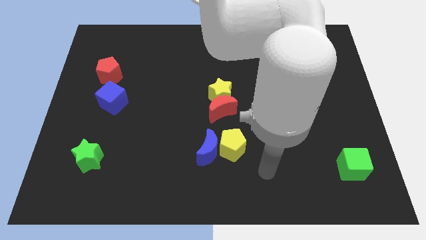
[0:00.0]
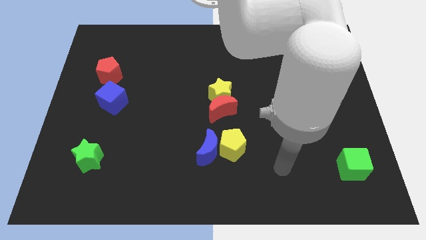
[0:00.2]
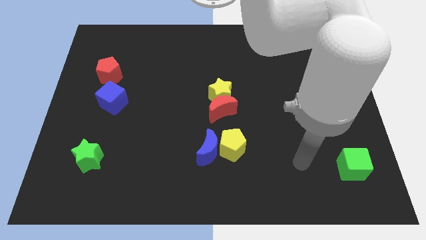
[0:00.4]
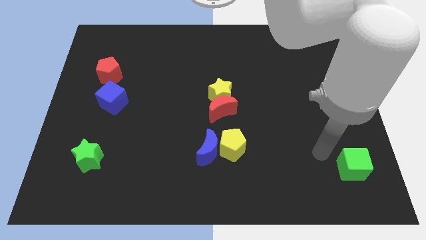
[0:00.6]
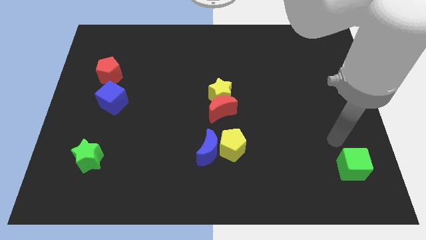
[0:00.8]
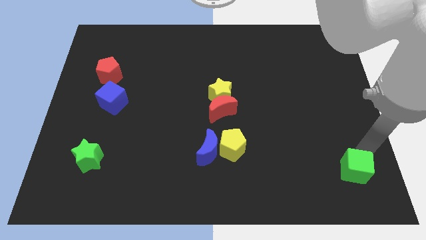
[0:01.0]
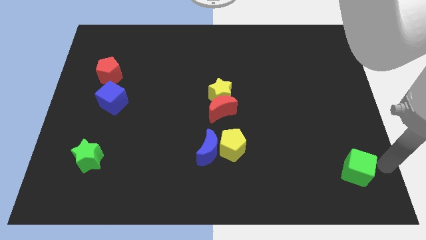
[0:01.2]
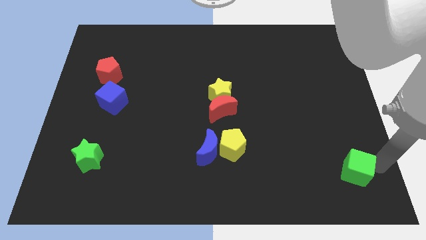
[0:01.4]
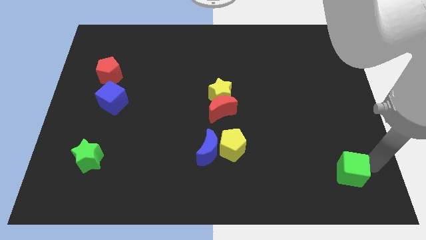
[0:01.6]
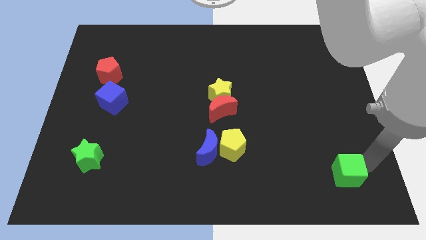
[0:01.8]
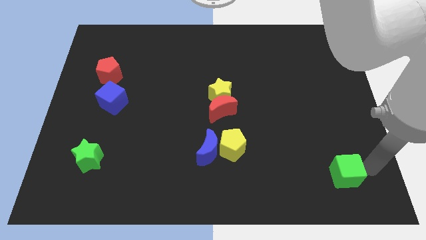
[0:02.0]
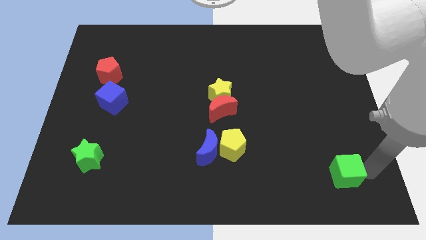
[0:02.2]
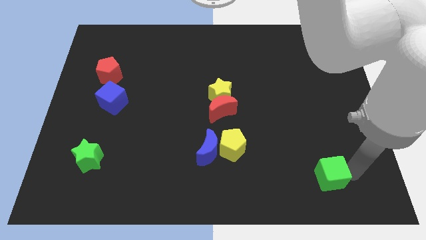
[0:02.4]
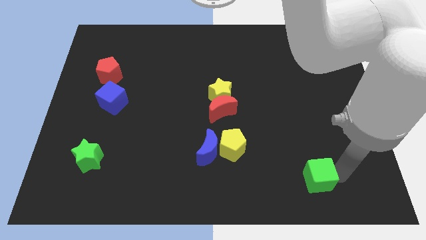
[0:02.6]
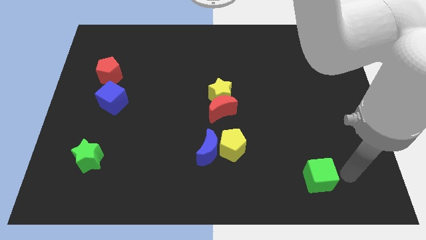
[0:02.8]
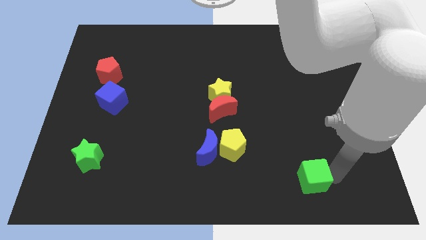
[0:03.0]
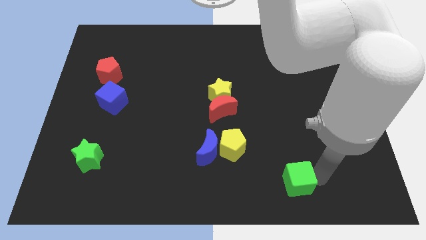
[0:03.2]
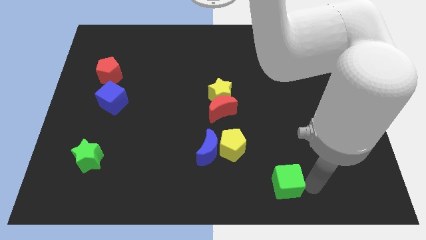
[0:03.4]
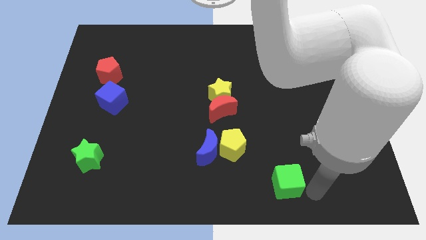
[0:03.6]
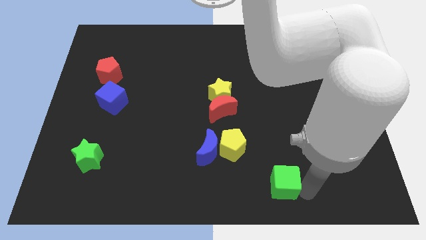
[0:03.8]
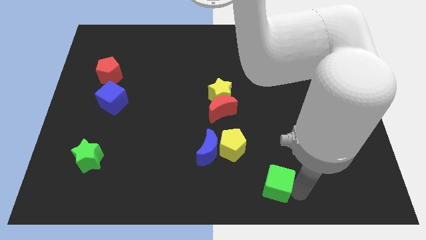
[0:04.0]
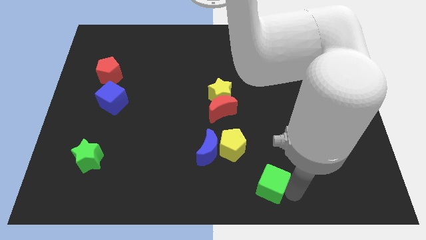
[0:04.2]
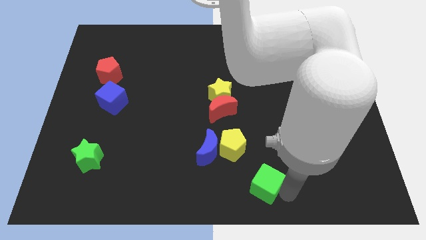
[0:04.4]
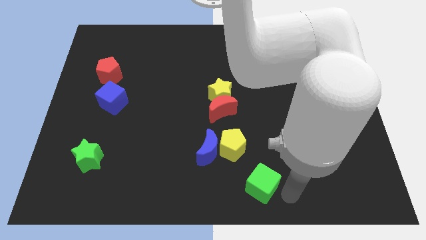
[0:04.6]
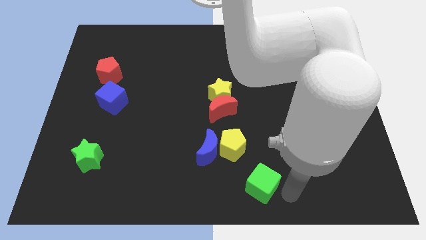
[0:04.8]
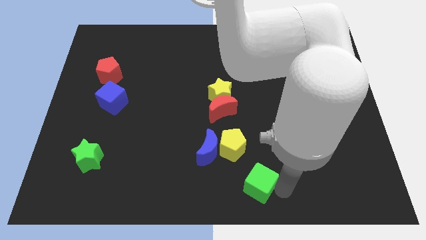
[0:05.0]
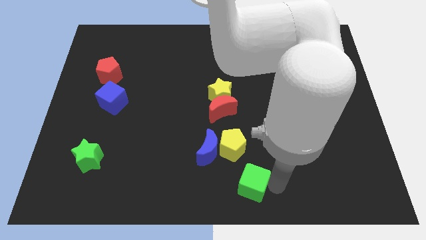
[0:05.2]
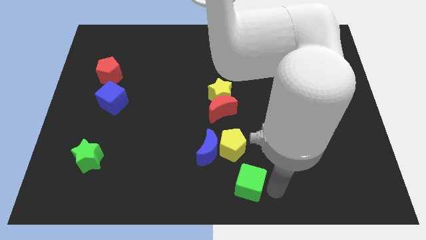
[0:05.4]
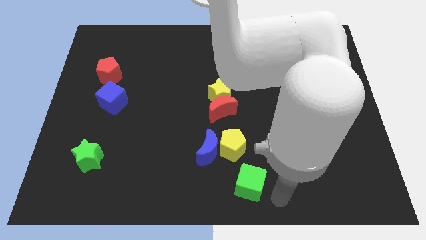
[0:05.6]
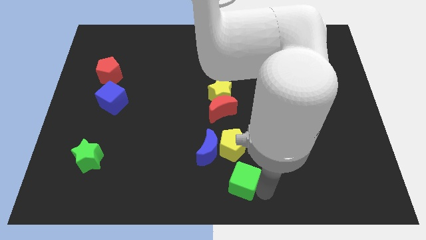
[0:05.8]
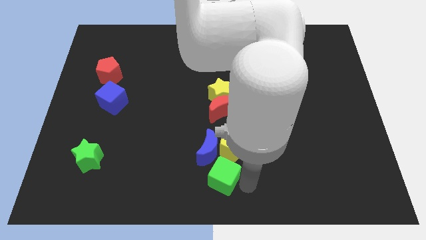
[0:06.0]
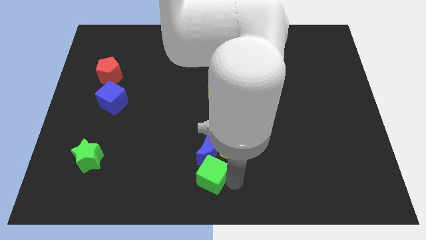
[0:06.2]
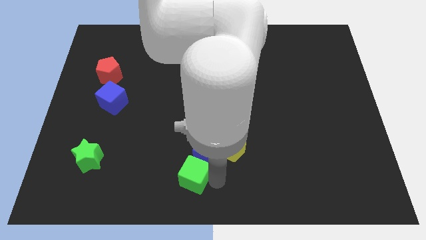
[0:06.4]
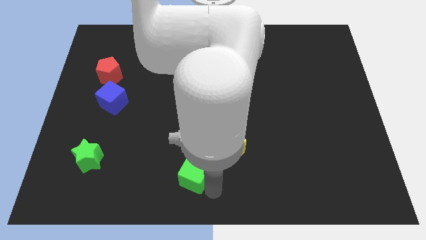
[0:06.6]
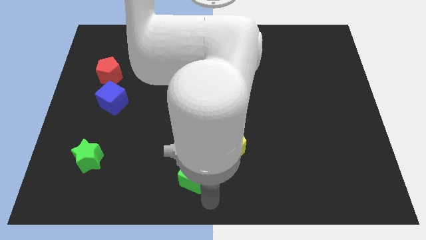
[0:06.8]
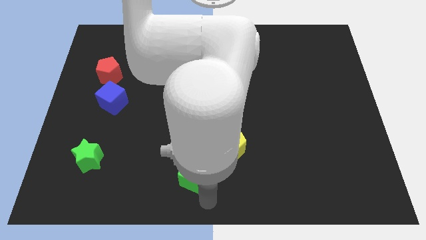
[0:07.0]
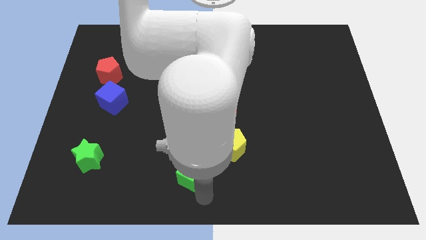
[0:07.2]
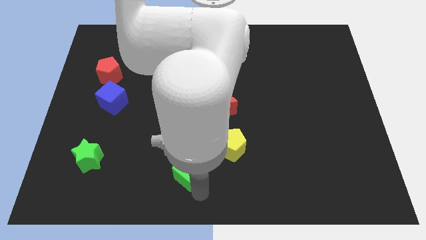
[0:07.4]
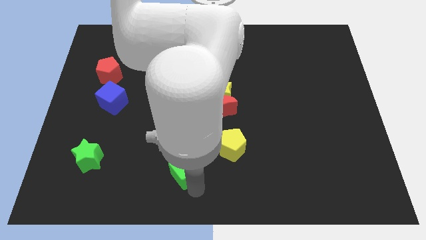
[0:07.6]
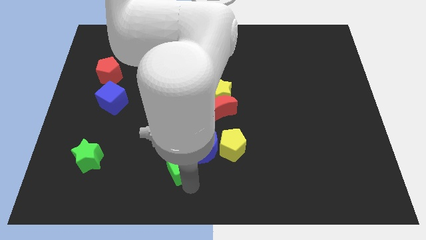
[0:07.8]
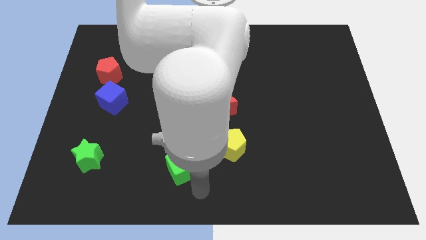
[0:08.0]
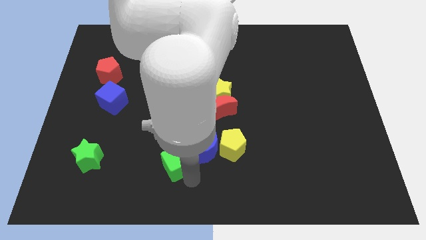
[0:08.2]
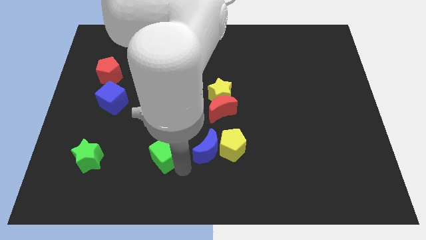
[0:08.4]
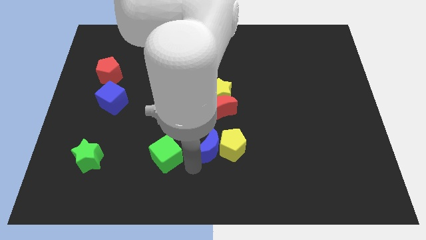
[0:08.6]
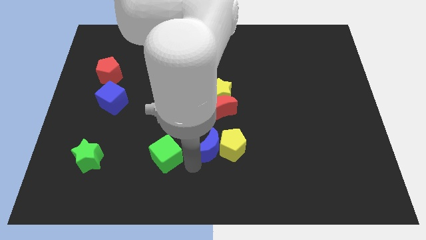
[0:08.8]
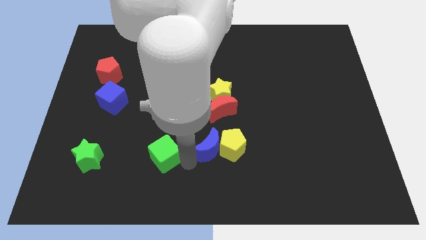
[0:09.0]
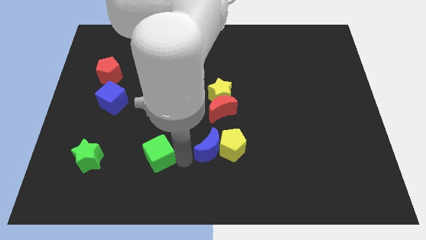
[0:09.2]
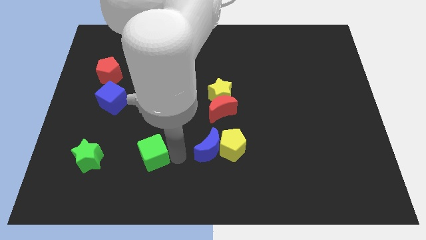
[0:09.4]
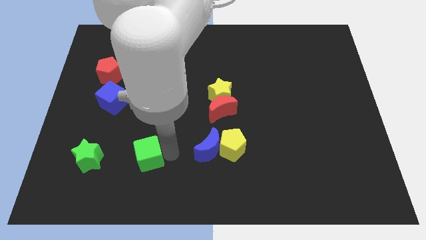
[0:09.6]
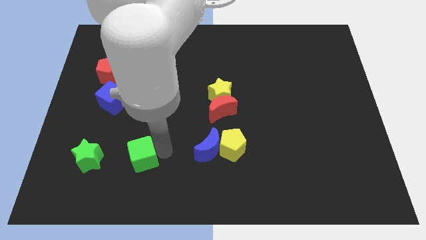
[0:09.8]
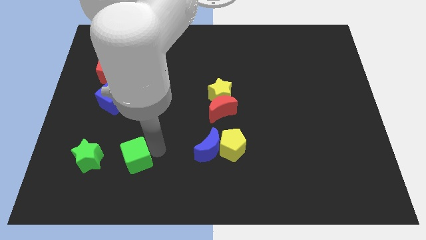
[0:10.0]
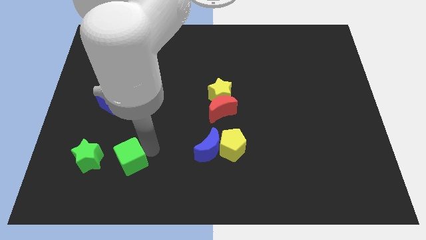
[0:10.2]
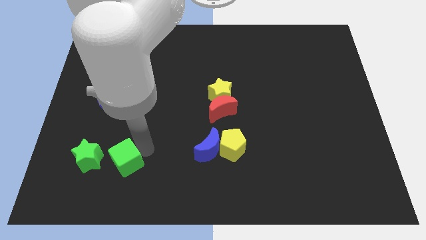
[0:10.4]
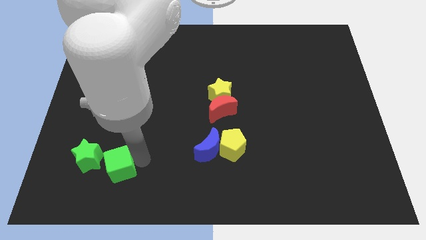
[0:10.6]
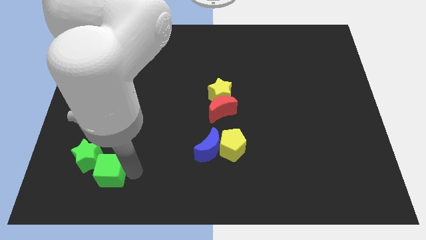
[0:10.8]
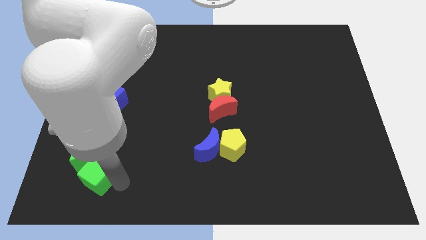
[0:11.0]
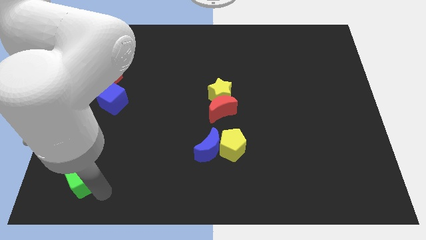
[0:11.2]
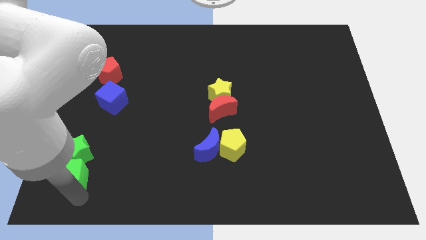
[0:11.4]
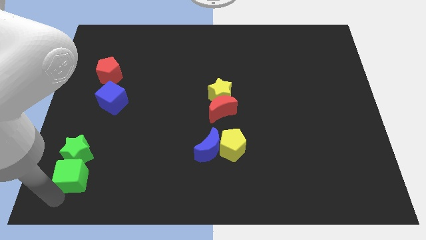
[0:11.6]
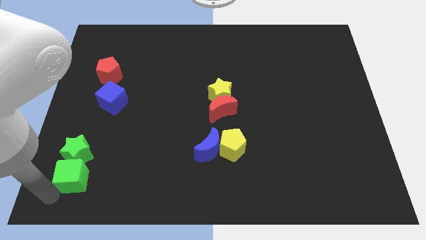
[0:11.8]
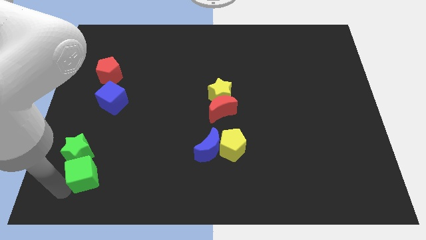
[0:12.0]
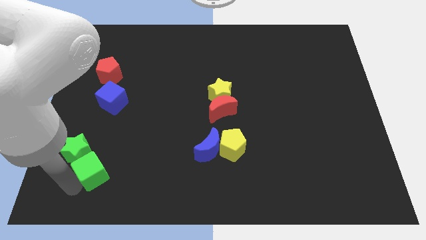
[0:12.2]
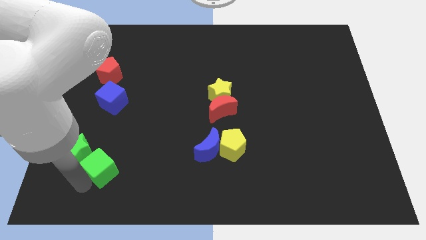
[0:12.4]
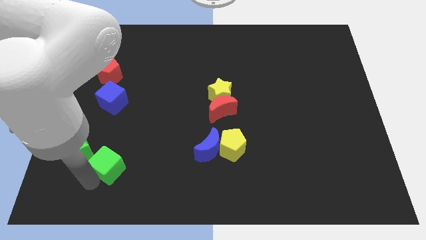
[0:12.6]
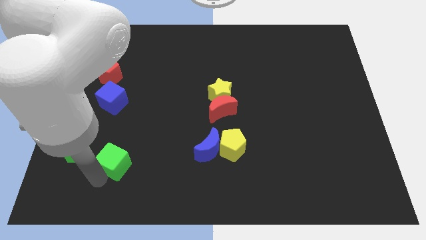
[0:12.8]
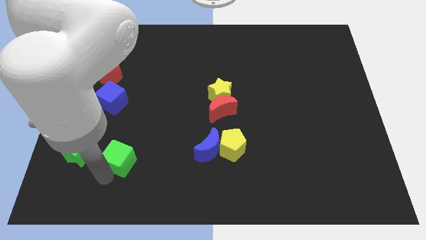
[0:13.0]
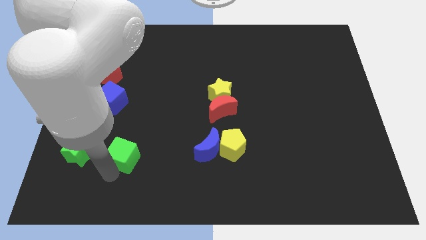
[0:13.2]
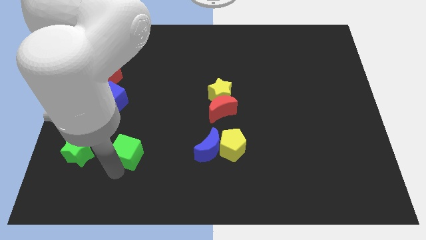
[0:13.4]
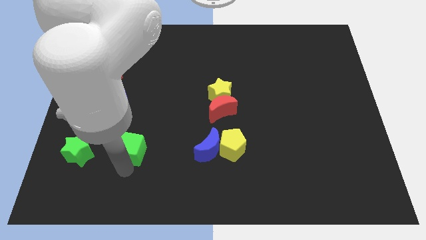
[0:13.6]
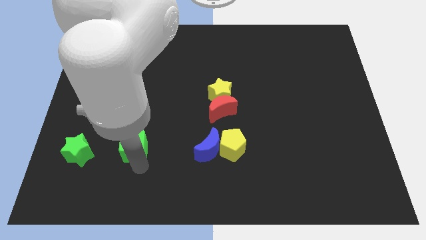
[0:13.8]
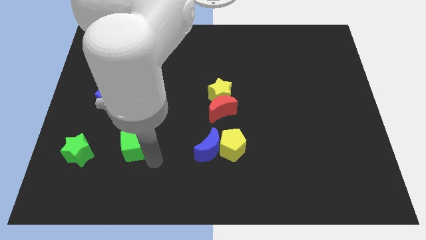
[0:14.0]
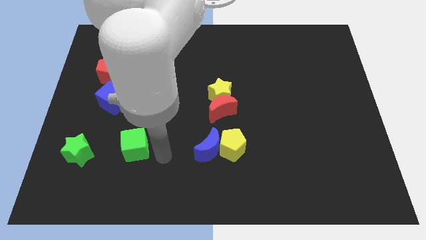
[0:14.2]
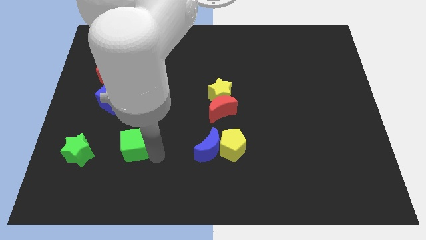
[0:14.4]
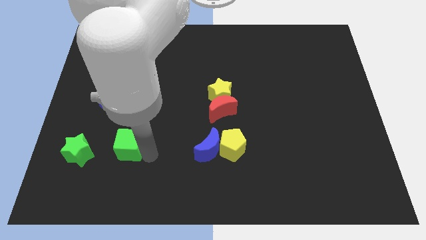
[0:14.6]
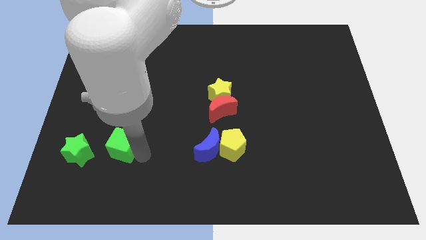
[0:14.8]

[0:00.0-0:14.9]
move the green cube below the blue cube
